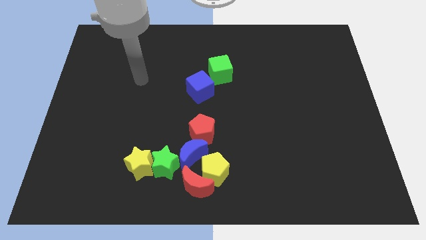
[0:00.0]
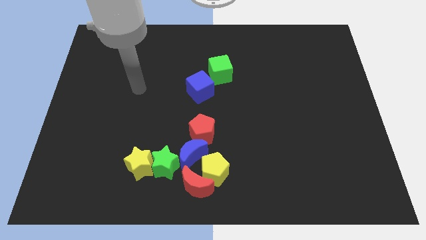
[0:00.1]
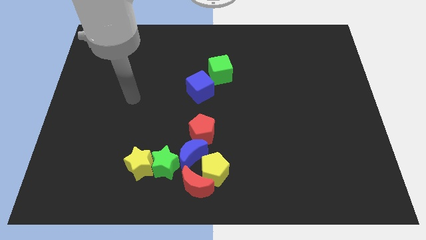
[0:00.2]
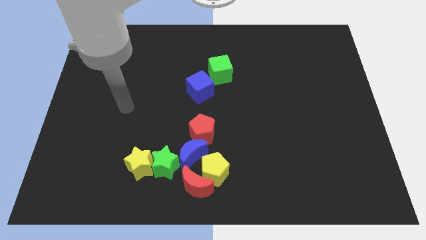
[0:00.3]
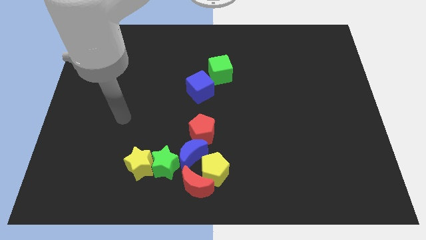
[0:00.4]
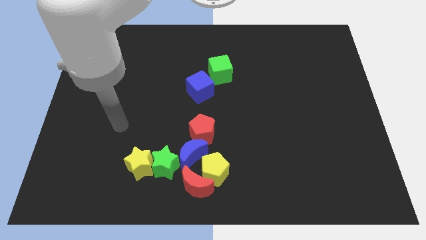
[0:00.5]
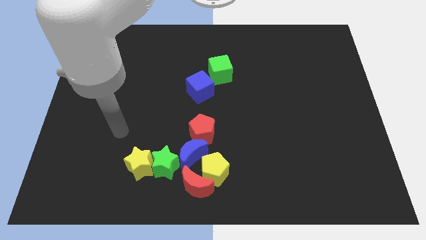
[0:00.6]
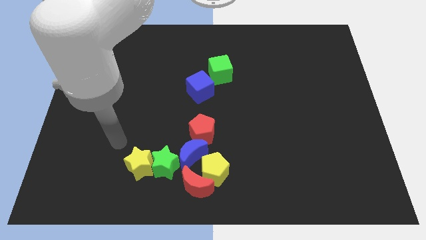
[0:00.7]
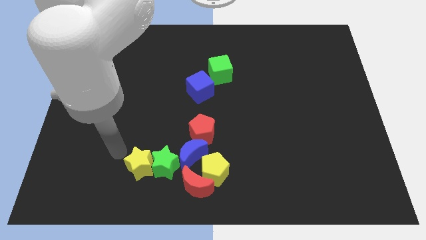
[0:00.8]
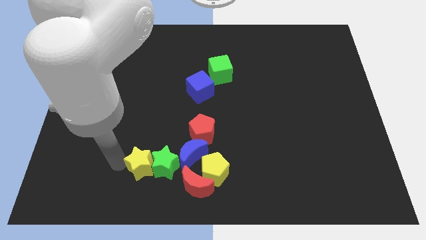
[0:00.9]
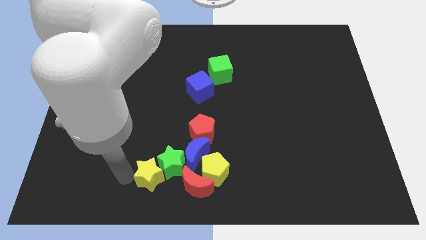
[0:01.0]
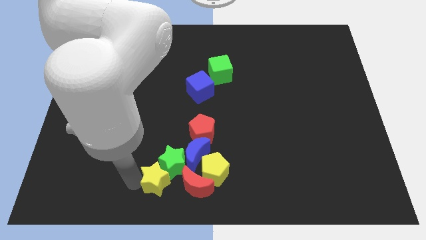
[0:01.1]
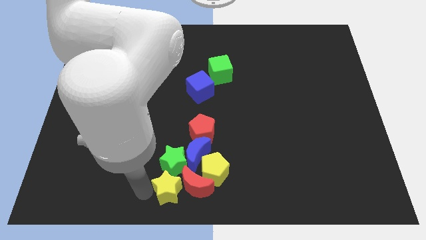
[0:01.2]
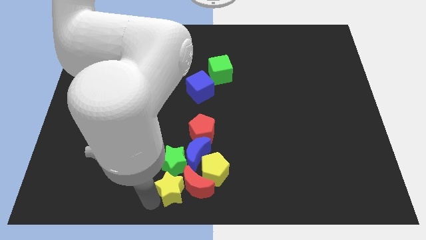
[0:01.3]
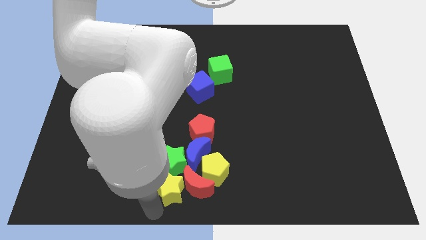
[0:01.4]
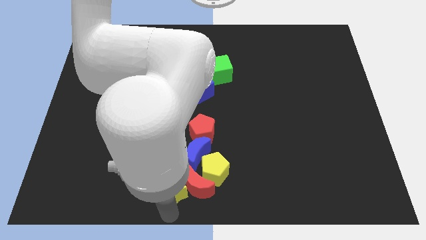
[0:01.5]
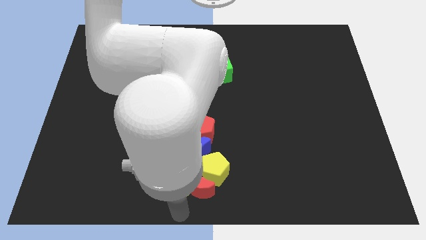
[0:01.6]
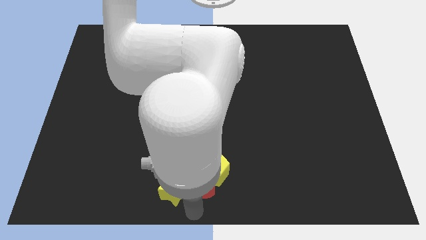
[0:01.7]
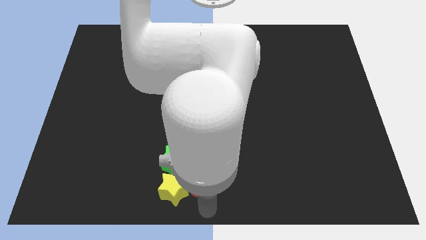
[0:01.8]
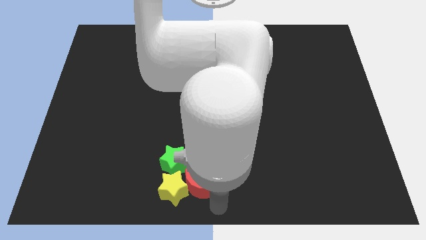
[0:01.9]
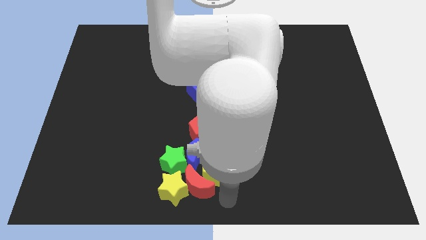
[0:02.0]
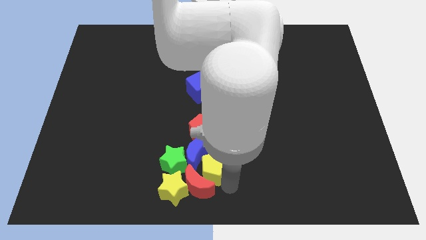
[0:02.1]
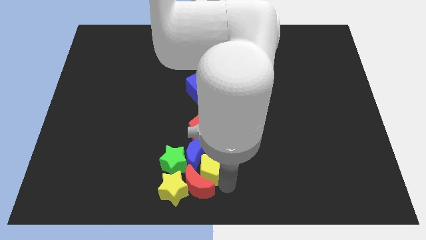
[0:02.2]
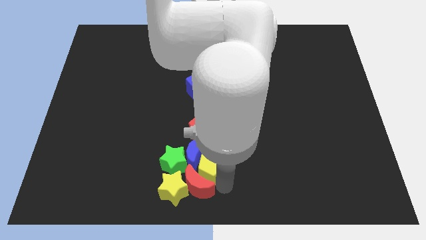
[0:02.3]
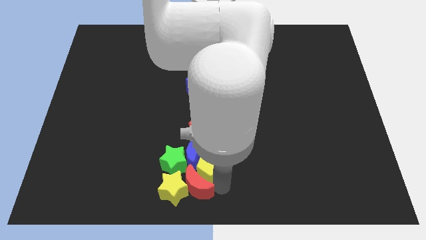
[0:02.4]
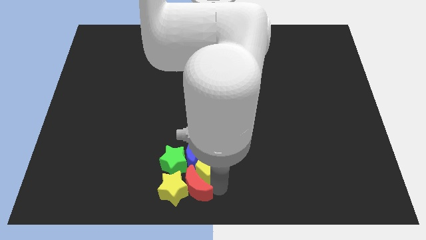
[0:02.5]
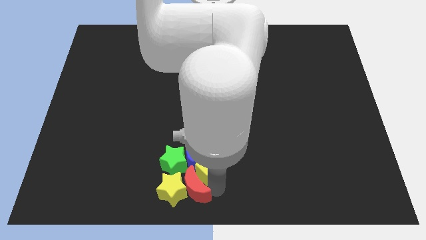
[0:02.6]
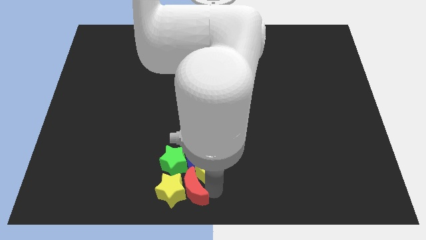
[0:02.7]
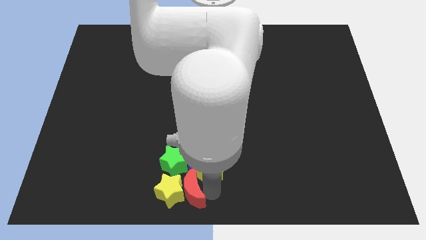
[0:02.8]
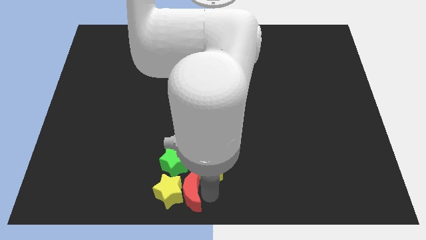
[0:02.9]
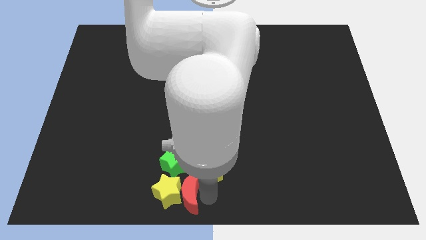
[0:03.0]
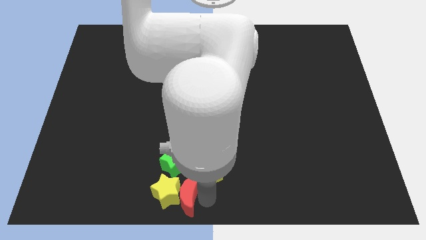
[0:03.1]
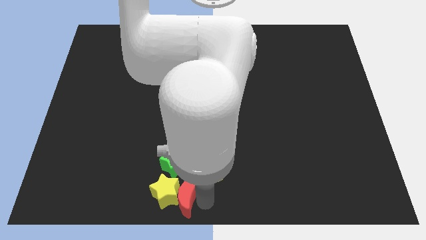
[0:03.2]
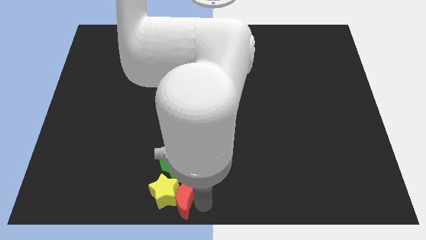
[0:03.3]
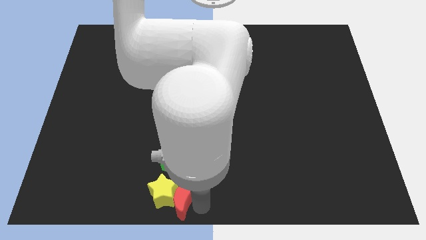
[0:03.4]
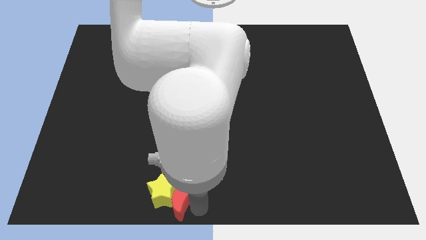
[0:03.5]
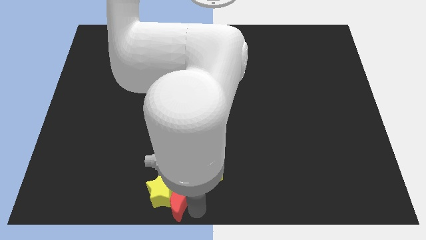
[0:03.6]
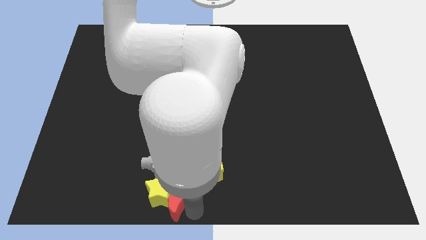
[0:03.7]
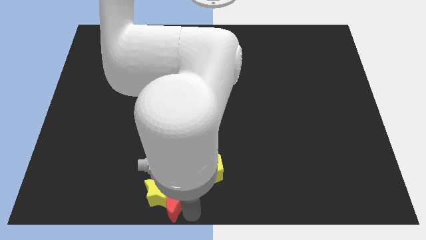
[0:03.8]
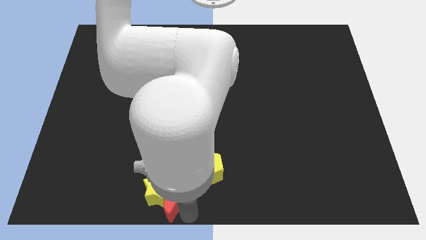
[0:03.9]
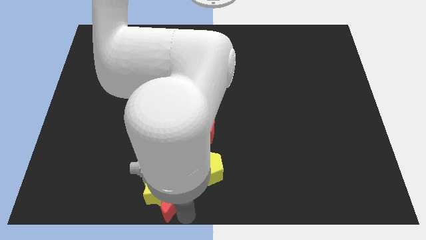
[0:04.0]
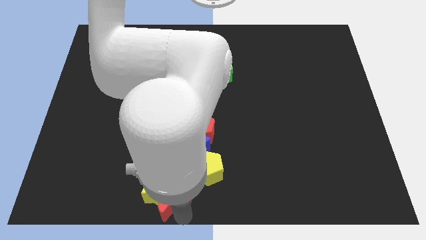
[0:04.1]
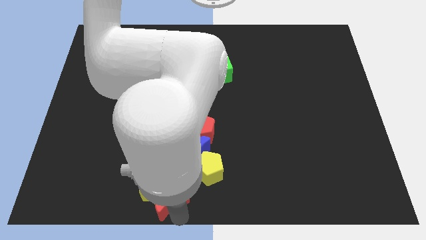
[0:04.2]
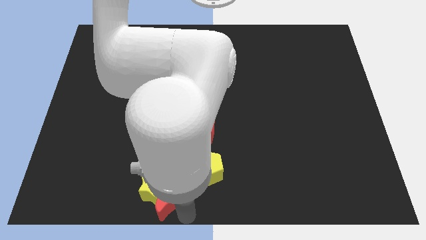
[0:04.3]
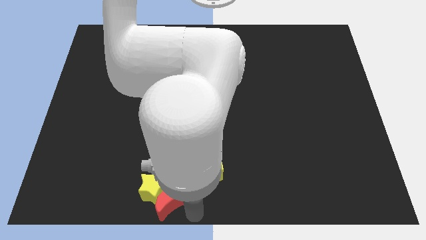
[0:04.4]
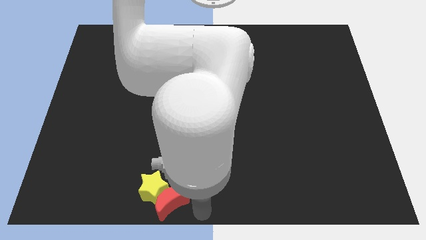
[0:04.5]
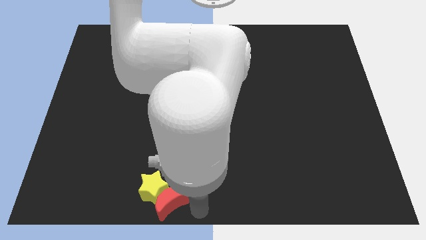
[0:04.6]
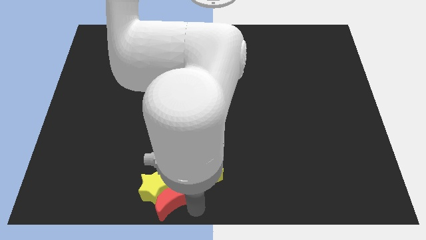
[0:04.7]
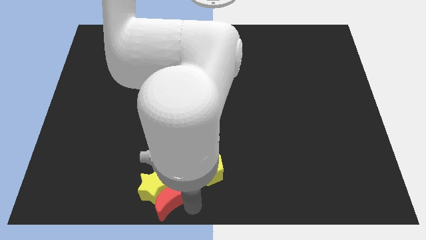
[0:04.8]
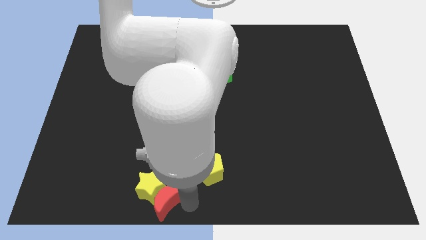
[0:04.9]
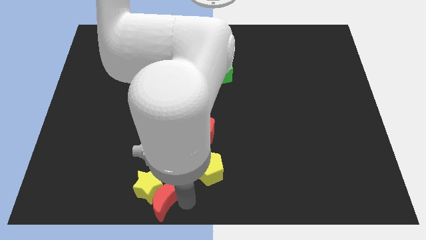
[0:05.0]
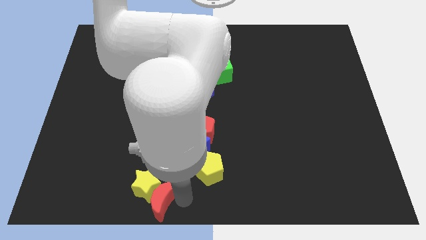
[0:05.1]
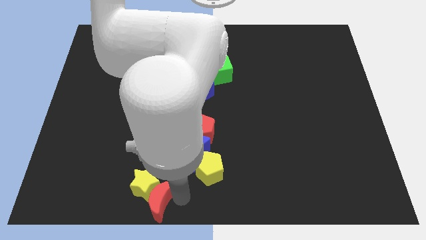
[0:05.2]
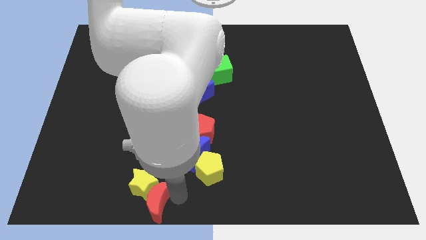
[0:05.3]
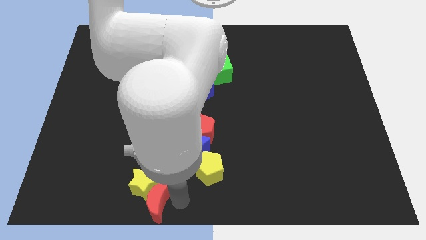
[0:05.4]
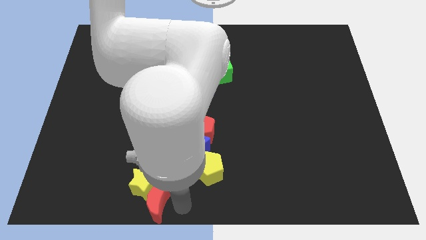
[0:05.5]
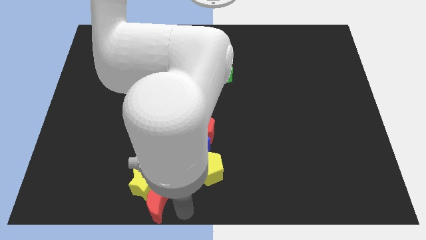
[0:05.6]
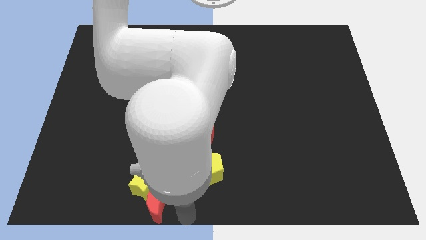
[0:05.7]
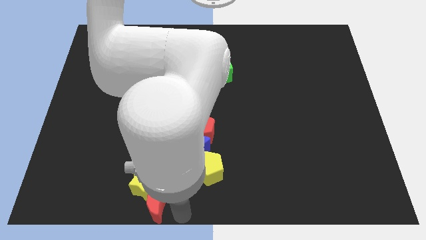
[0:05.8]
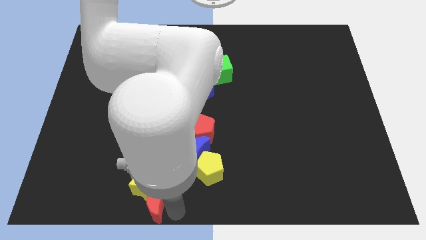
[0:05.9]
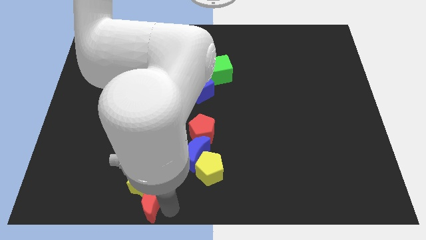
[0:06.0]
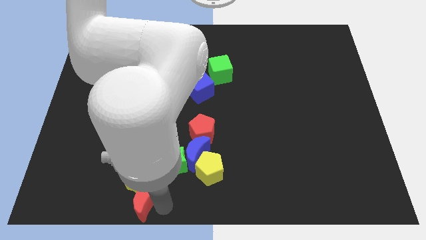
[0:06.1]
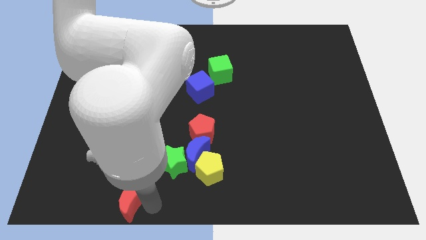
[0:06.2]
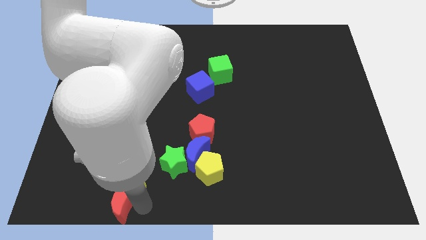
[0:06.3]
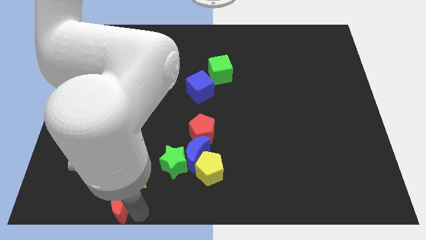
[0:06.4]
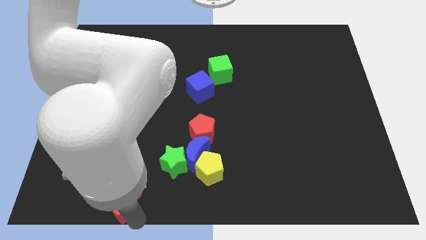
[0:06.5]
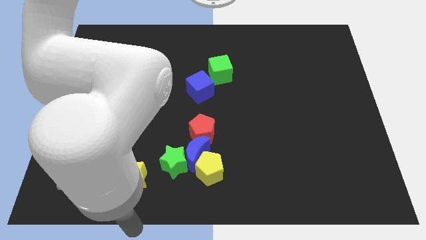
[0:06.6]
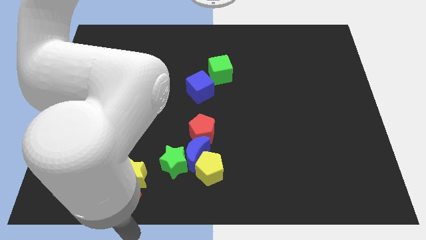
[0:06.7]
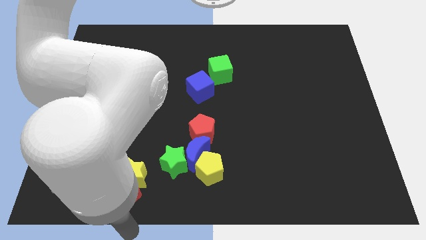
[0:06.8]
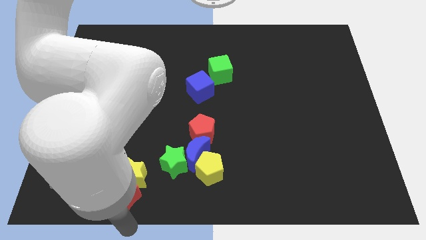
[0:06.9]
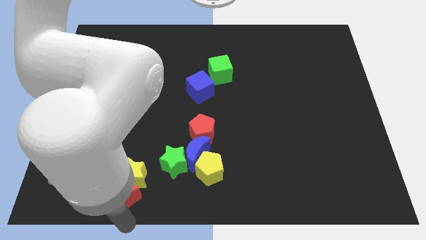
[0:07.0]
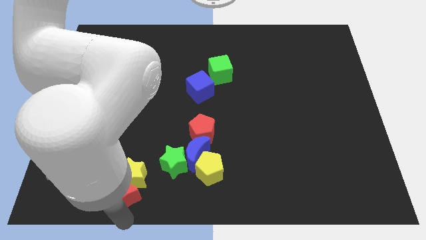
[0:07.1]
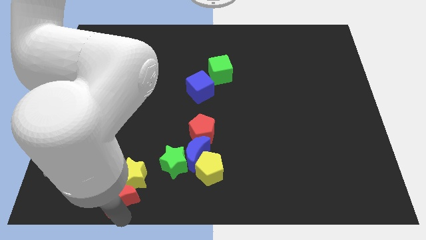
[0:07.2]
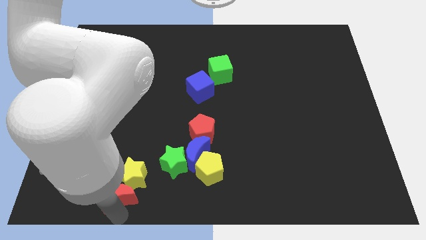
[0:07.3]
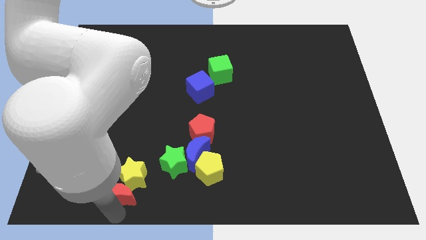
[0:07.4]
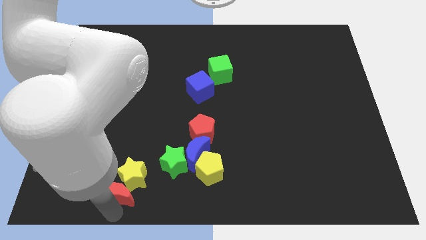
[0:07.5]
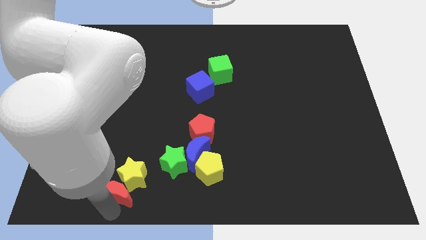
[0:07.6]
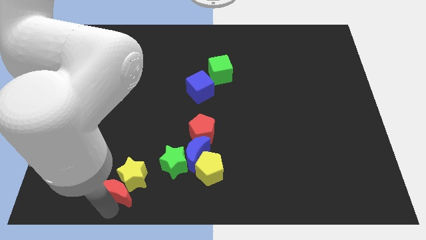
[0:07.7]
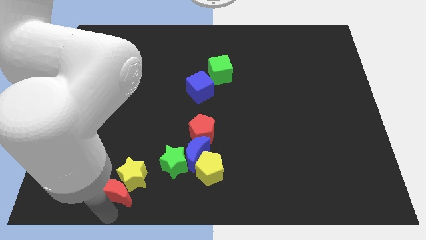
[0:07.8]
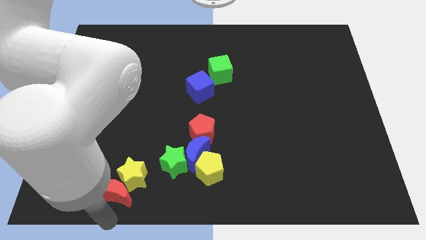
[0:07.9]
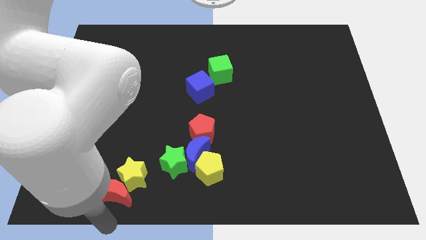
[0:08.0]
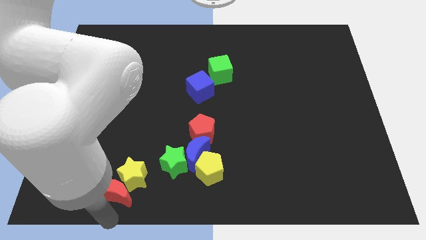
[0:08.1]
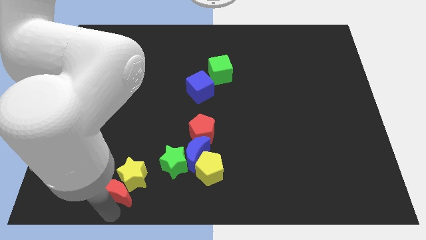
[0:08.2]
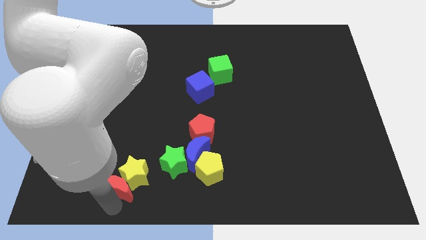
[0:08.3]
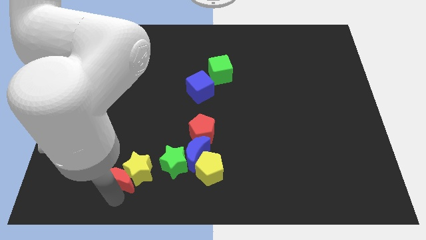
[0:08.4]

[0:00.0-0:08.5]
slightly push the red moon diagonally up and to the left
